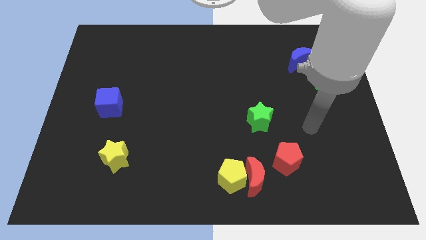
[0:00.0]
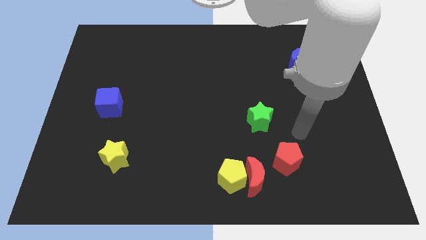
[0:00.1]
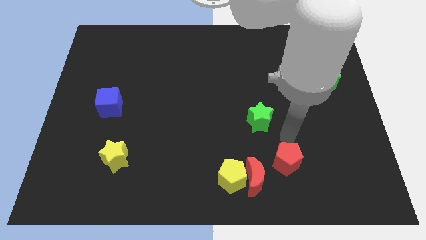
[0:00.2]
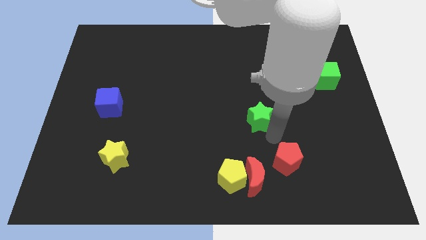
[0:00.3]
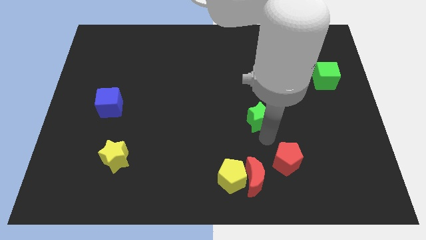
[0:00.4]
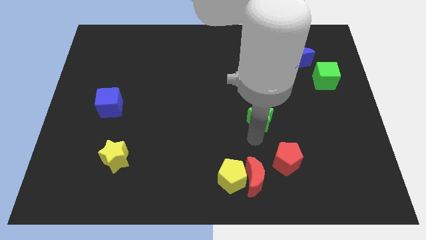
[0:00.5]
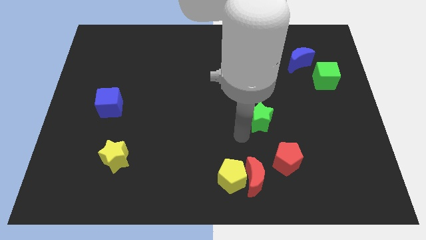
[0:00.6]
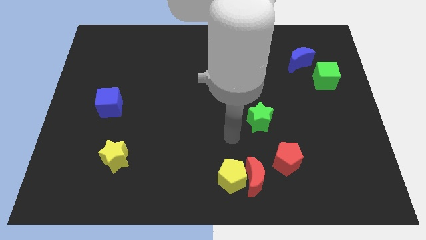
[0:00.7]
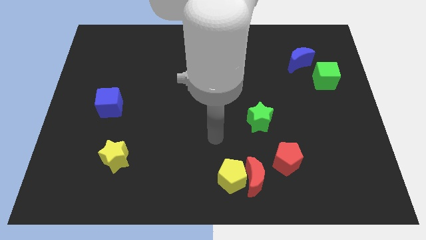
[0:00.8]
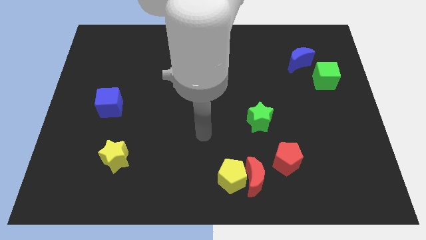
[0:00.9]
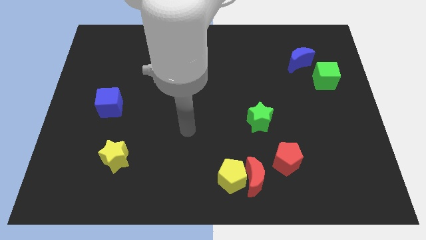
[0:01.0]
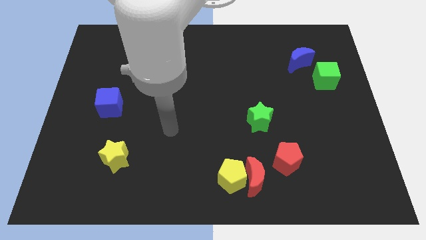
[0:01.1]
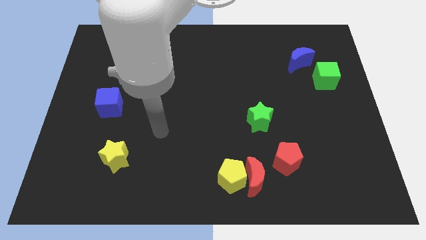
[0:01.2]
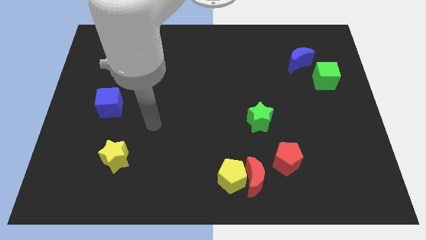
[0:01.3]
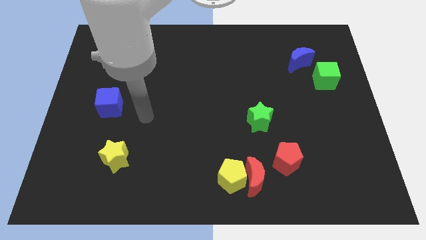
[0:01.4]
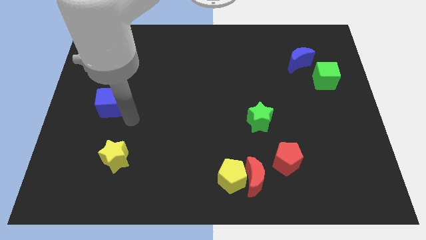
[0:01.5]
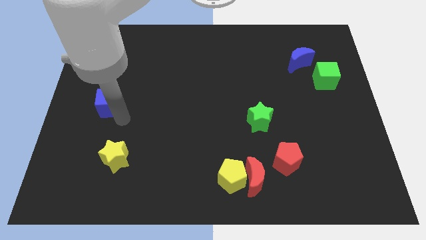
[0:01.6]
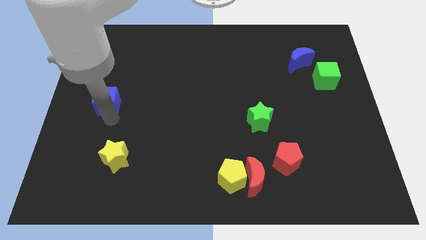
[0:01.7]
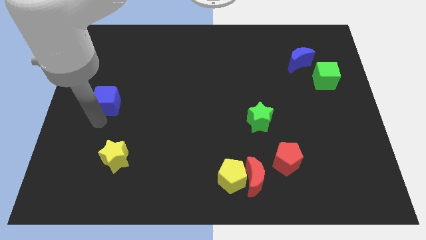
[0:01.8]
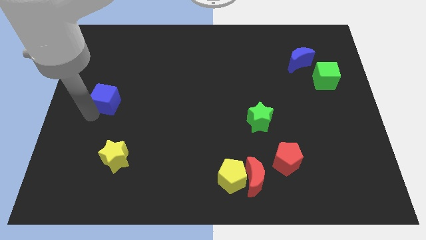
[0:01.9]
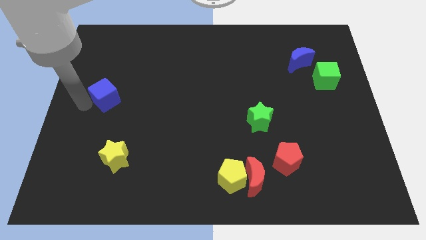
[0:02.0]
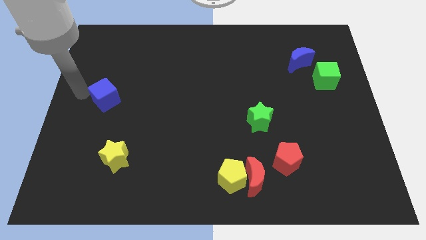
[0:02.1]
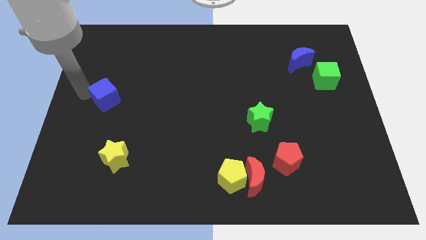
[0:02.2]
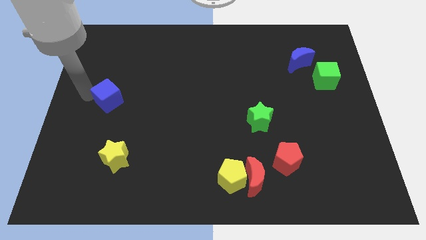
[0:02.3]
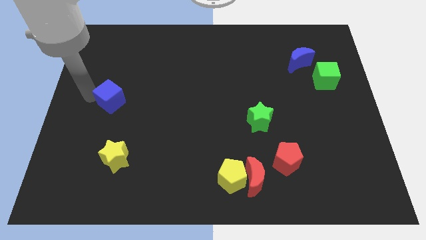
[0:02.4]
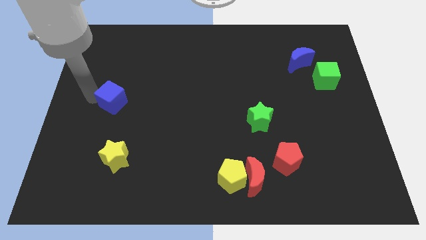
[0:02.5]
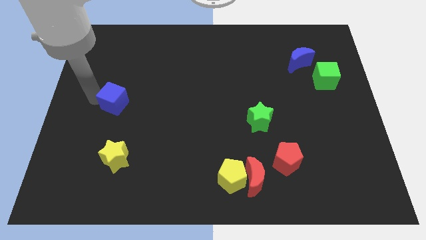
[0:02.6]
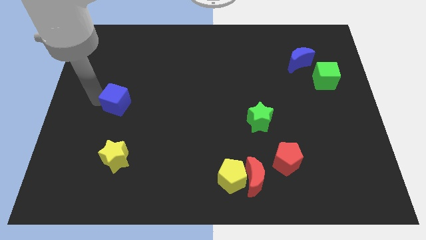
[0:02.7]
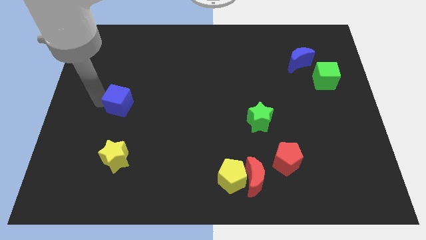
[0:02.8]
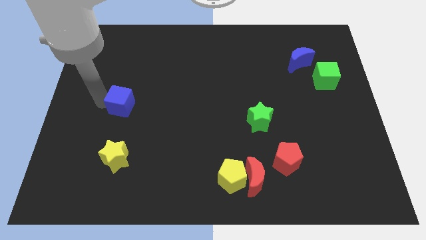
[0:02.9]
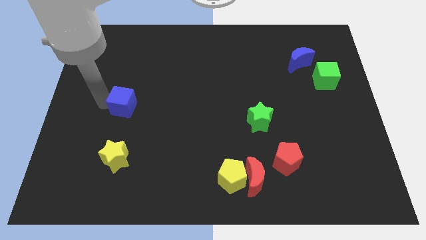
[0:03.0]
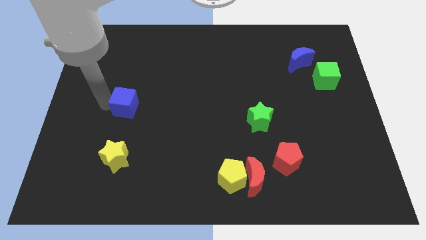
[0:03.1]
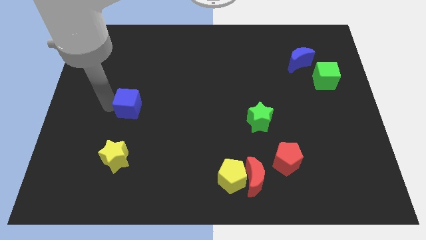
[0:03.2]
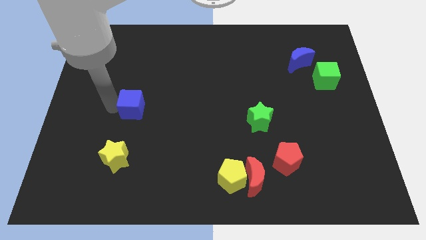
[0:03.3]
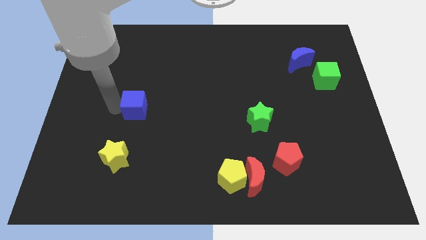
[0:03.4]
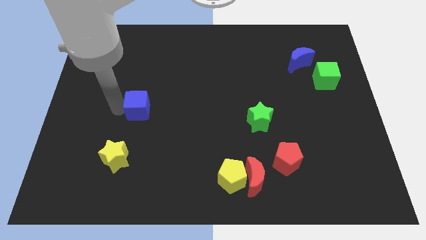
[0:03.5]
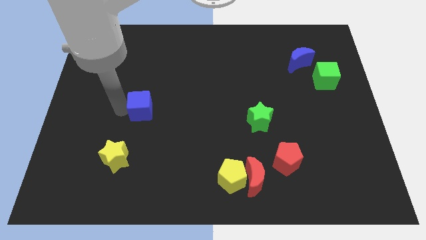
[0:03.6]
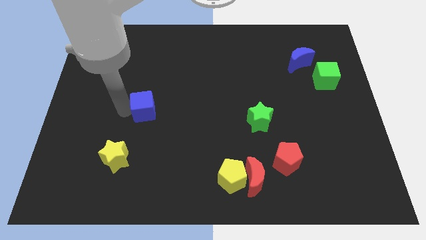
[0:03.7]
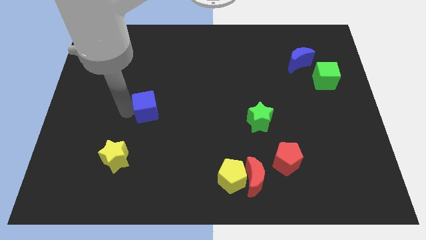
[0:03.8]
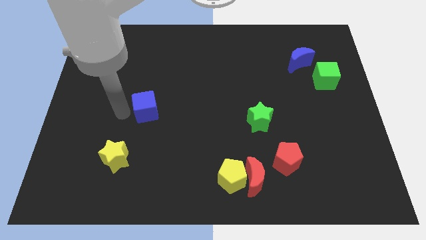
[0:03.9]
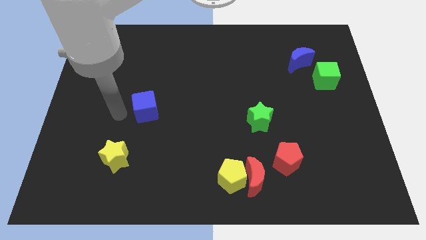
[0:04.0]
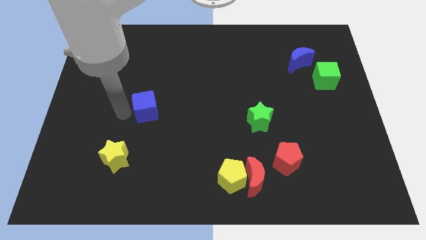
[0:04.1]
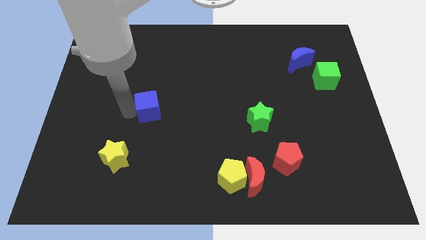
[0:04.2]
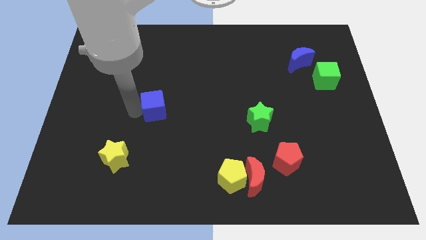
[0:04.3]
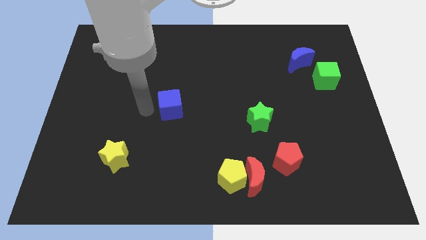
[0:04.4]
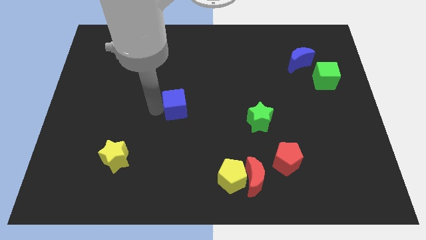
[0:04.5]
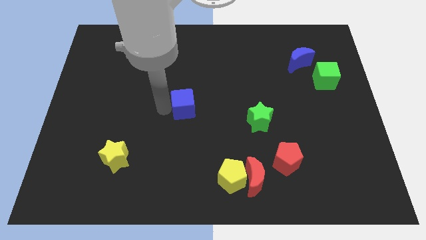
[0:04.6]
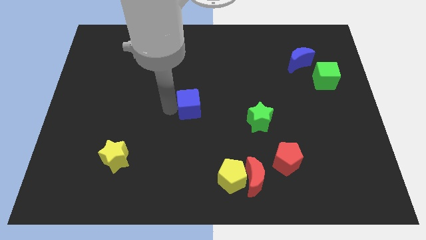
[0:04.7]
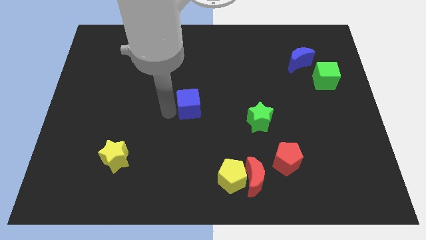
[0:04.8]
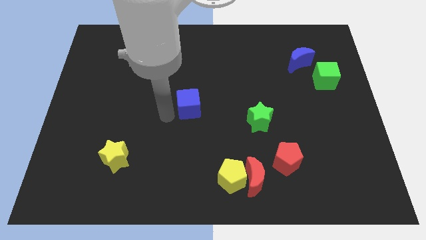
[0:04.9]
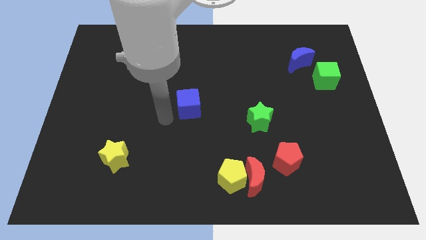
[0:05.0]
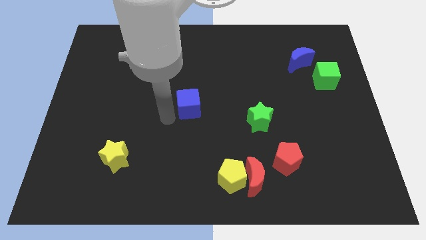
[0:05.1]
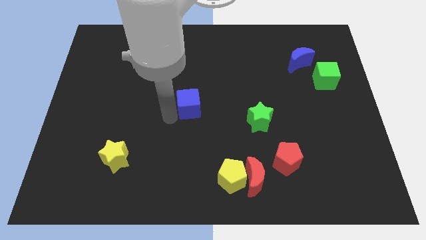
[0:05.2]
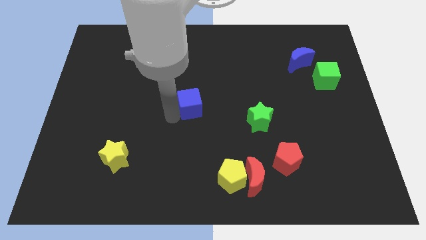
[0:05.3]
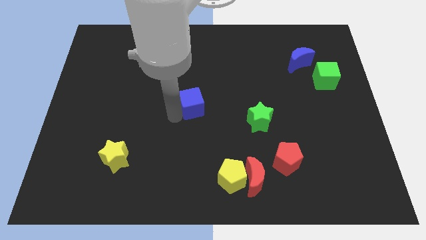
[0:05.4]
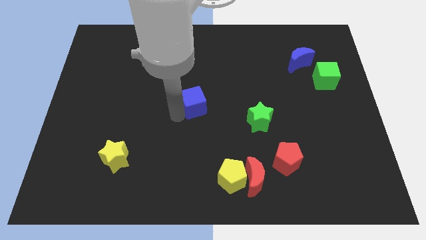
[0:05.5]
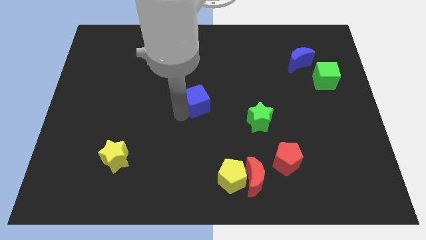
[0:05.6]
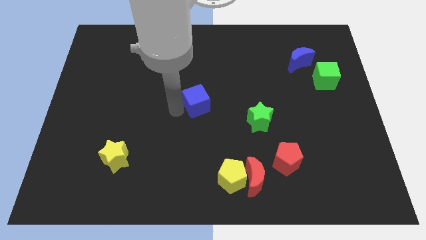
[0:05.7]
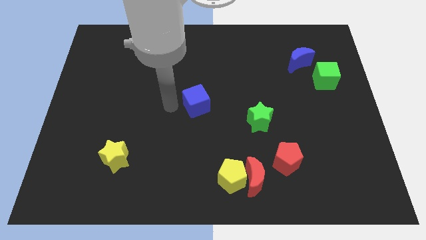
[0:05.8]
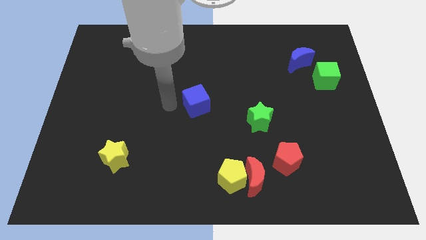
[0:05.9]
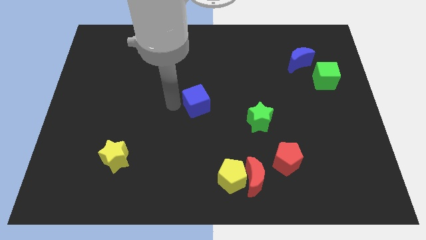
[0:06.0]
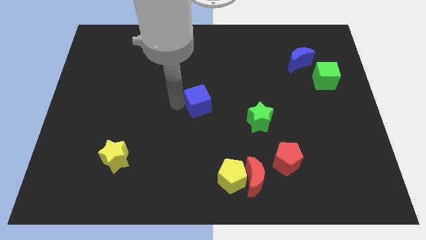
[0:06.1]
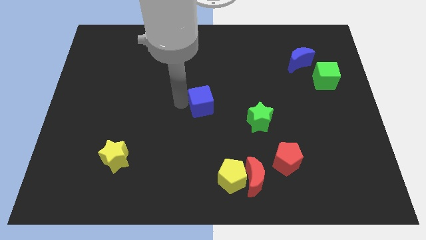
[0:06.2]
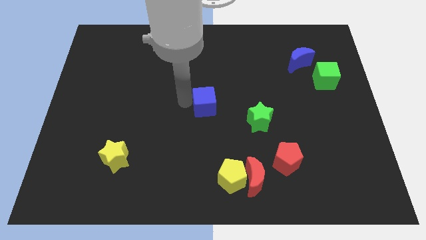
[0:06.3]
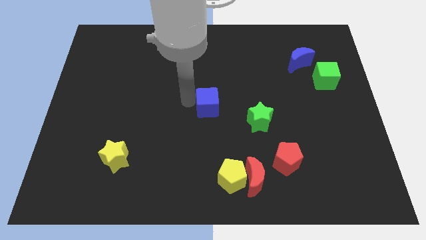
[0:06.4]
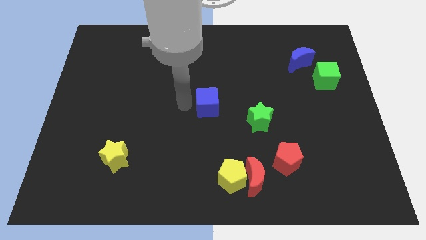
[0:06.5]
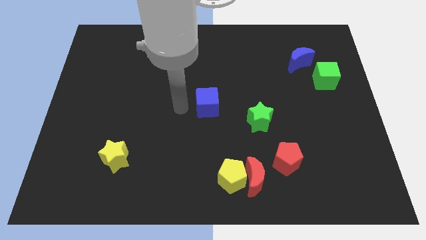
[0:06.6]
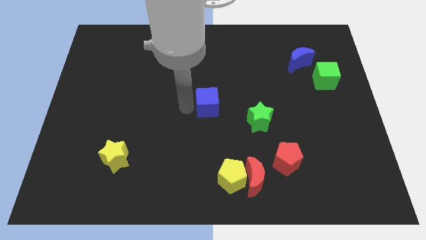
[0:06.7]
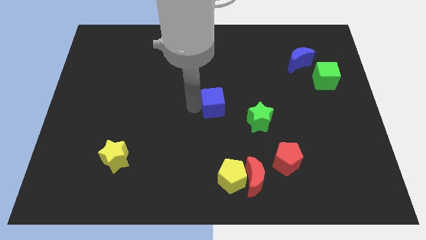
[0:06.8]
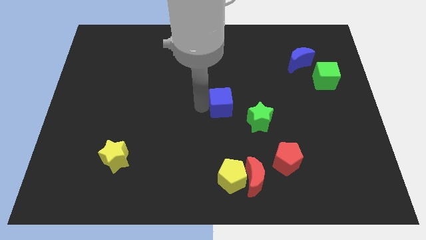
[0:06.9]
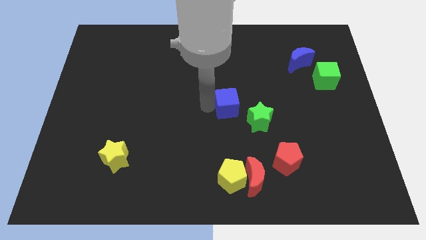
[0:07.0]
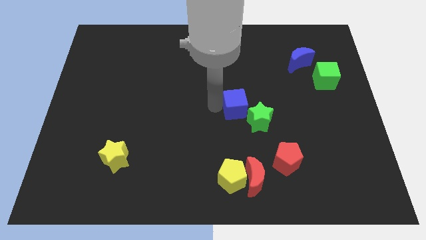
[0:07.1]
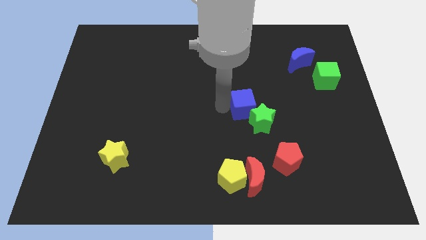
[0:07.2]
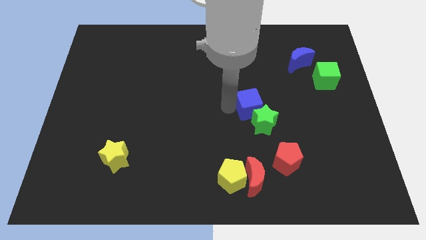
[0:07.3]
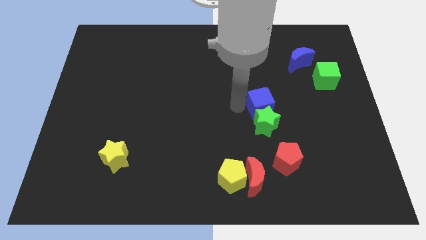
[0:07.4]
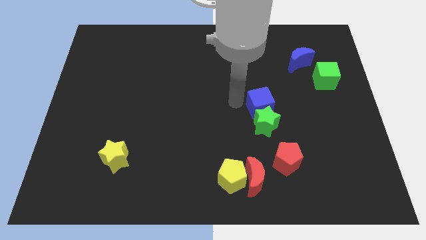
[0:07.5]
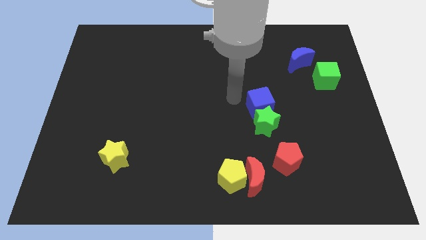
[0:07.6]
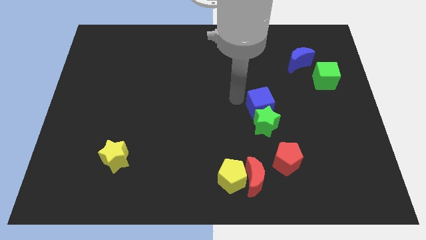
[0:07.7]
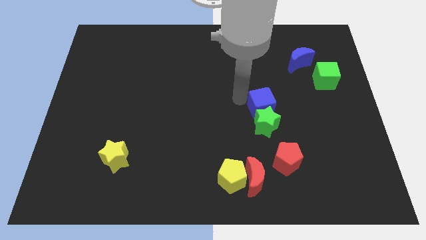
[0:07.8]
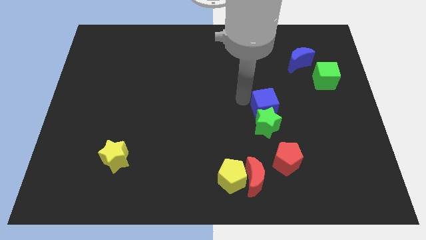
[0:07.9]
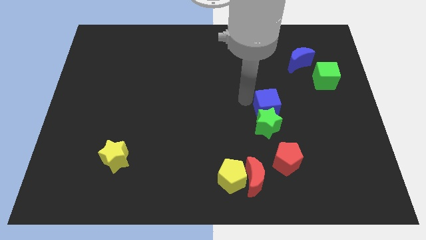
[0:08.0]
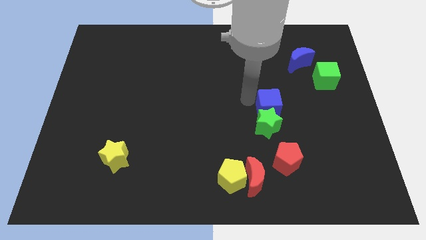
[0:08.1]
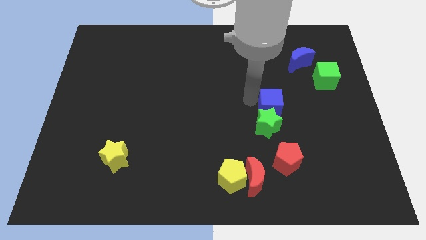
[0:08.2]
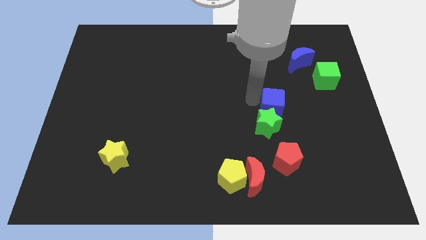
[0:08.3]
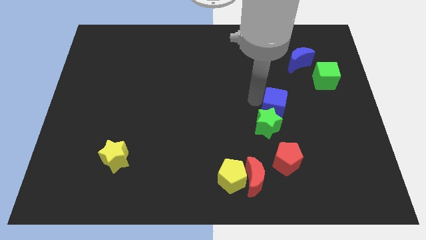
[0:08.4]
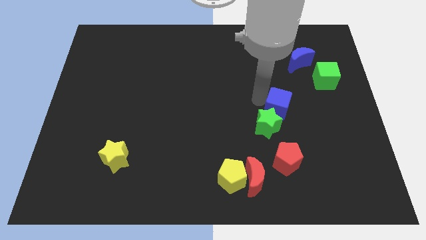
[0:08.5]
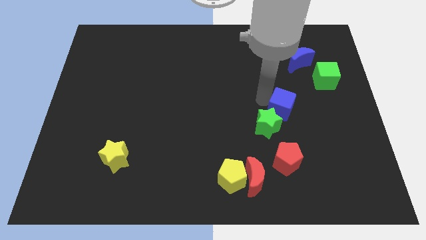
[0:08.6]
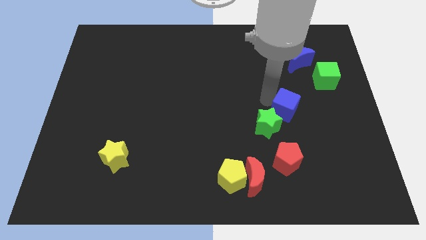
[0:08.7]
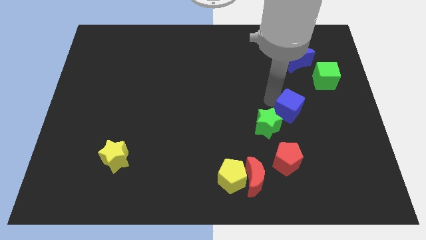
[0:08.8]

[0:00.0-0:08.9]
move the blue cube right of the green star
